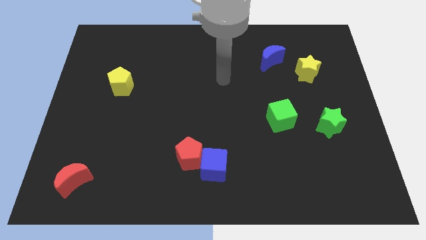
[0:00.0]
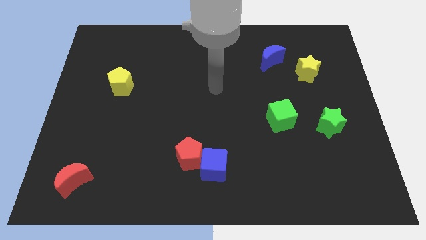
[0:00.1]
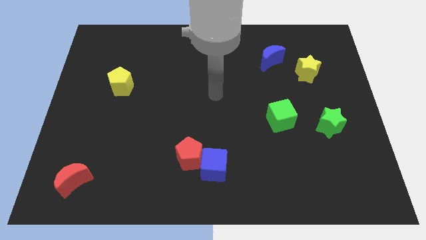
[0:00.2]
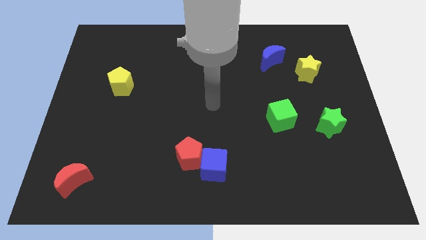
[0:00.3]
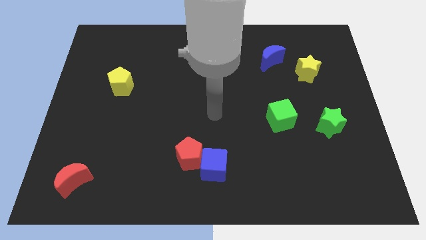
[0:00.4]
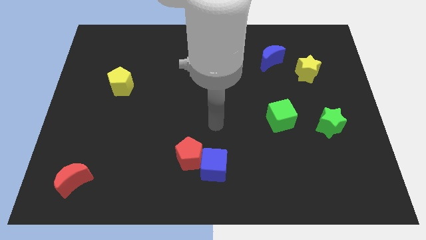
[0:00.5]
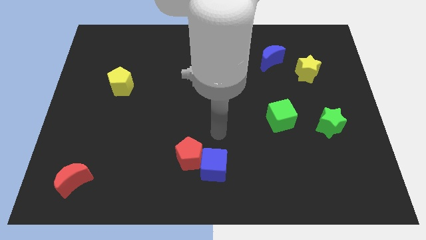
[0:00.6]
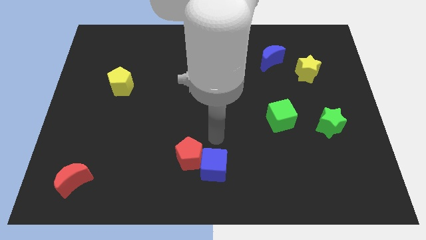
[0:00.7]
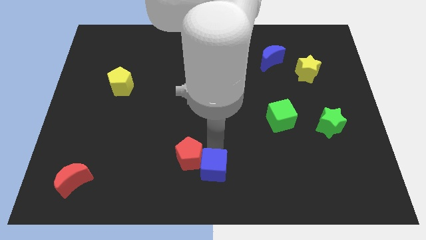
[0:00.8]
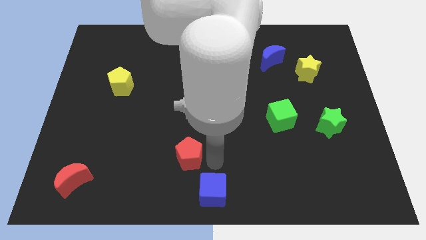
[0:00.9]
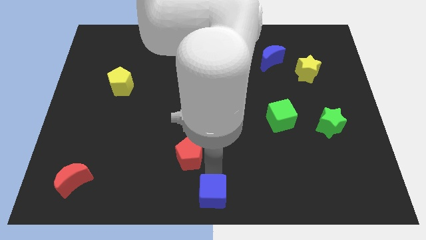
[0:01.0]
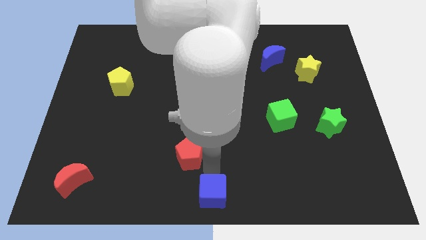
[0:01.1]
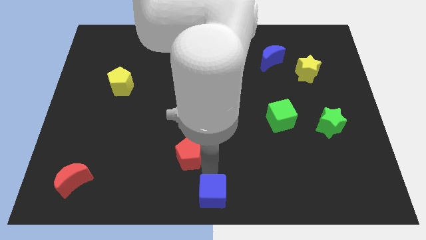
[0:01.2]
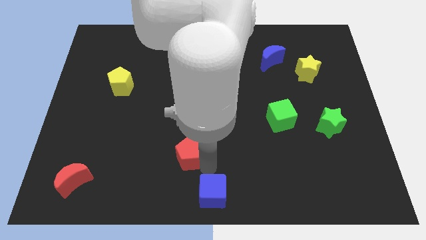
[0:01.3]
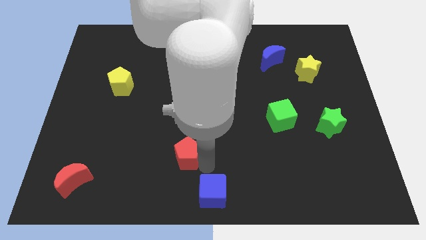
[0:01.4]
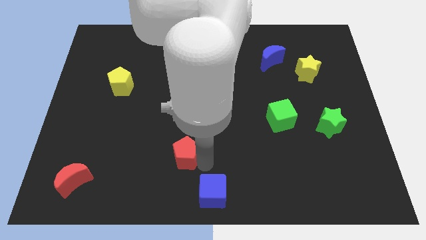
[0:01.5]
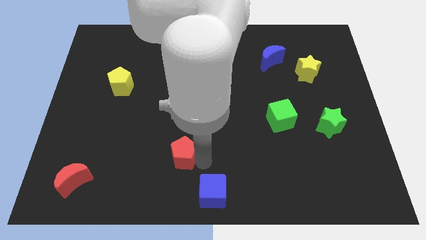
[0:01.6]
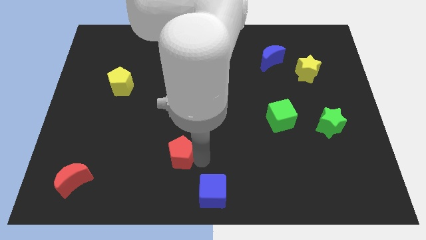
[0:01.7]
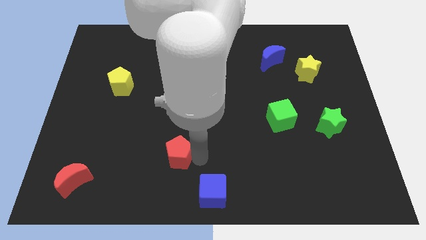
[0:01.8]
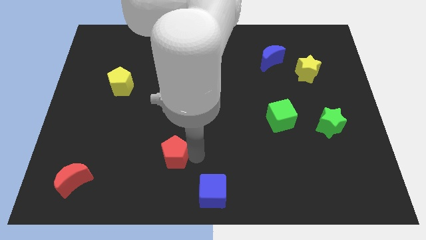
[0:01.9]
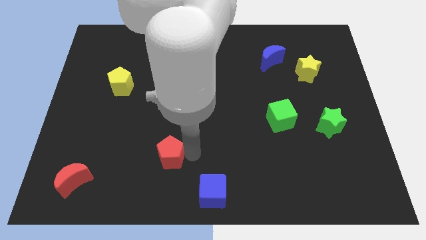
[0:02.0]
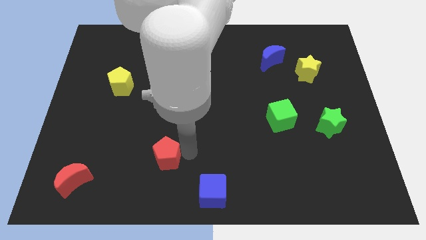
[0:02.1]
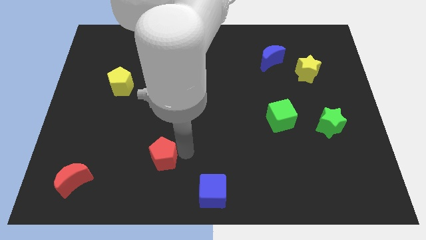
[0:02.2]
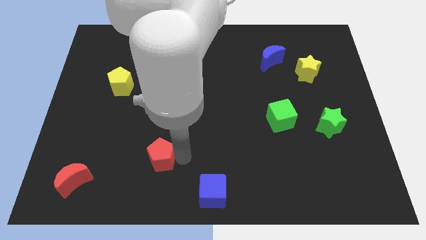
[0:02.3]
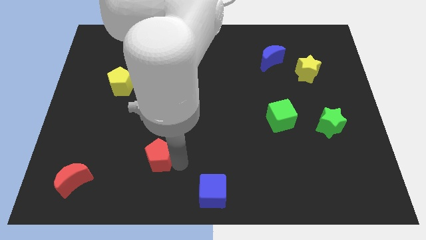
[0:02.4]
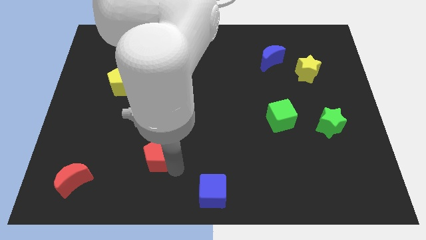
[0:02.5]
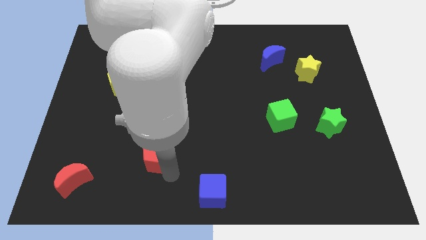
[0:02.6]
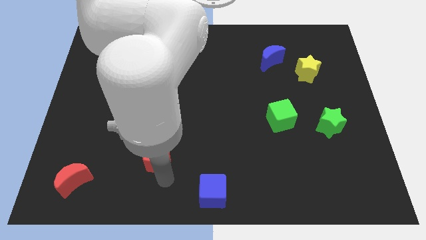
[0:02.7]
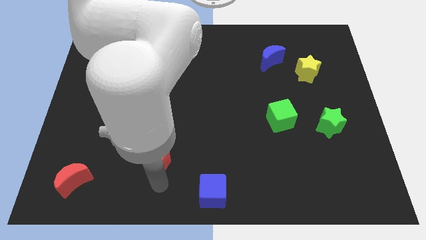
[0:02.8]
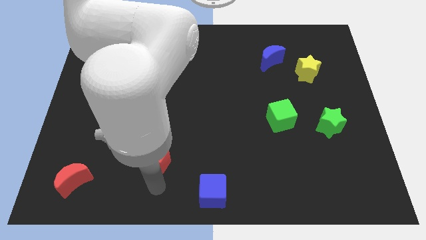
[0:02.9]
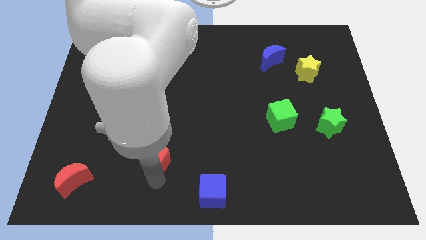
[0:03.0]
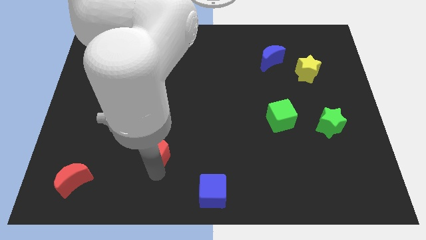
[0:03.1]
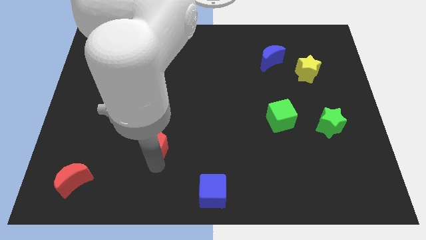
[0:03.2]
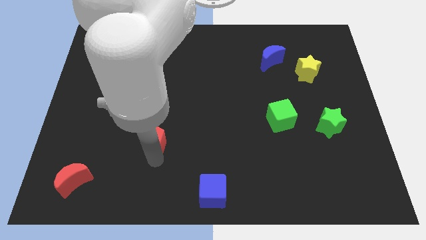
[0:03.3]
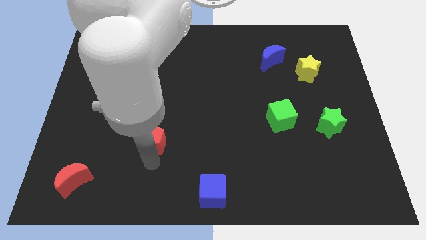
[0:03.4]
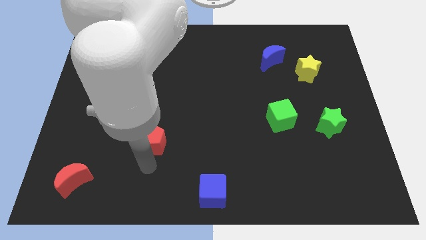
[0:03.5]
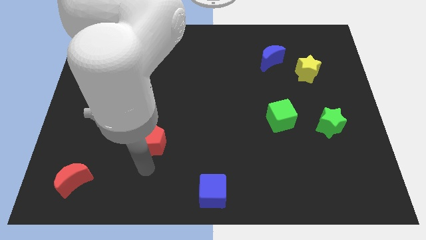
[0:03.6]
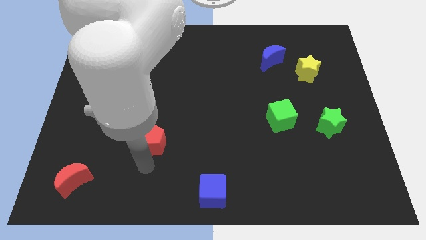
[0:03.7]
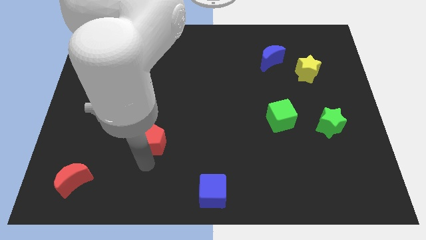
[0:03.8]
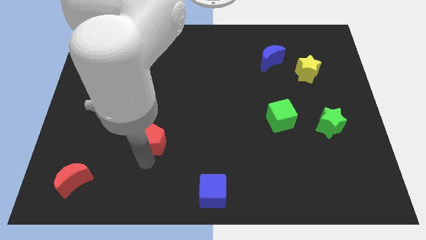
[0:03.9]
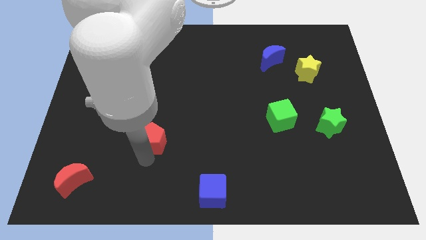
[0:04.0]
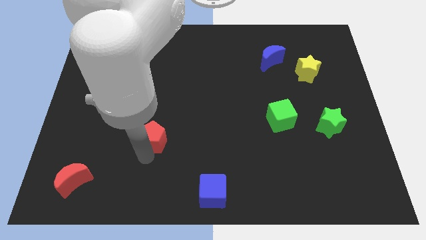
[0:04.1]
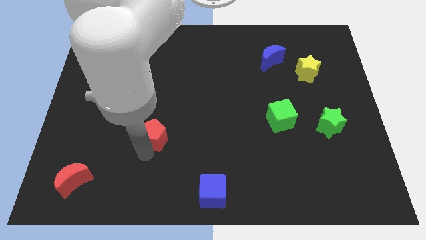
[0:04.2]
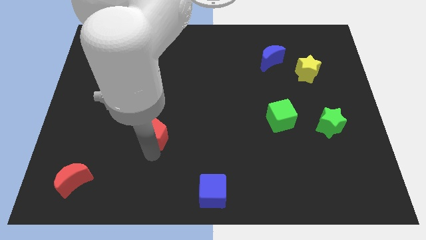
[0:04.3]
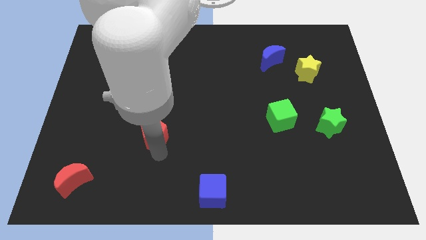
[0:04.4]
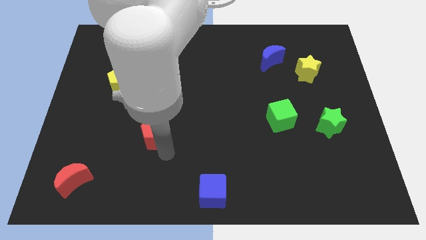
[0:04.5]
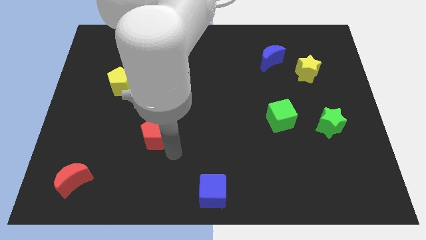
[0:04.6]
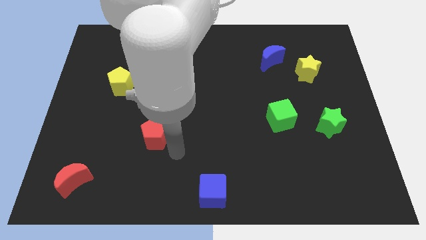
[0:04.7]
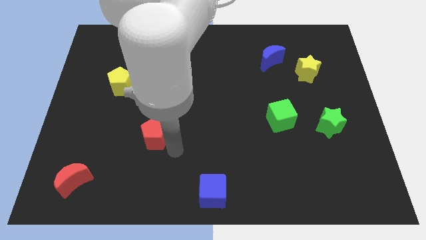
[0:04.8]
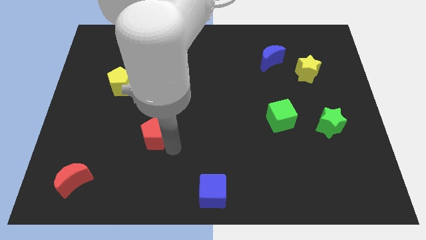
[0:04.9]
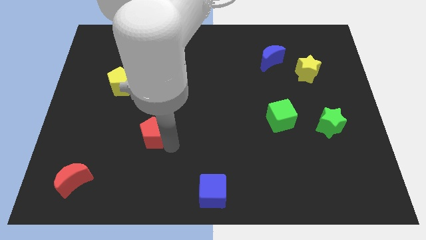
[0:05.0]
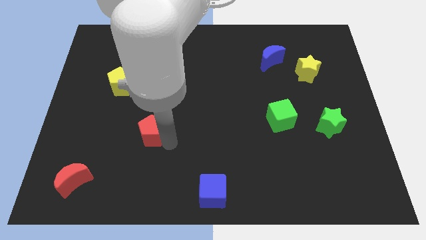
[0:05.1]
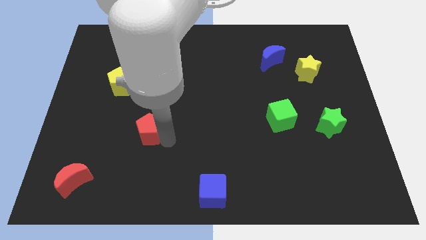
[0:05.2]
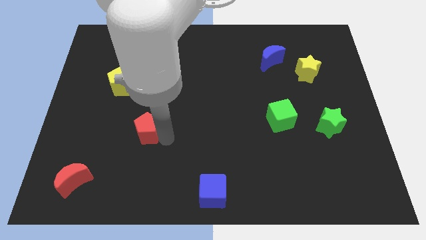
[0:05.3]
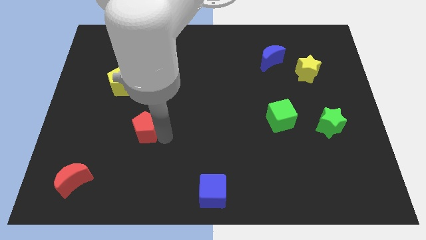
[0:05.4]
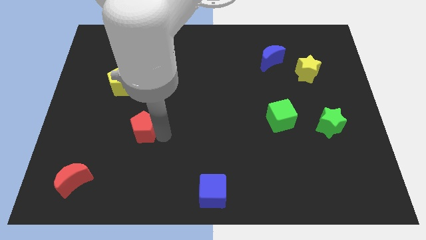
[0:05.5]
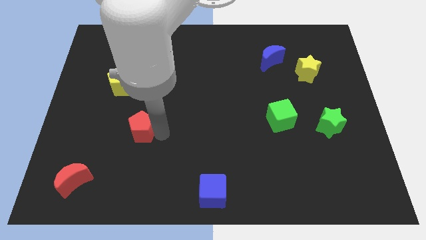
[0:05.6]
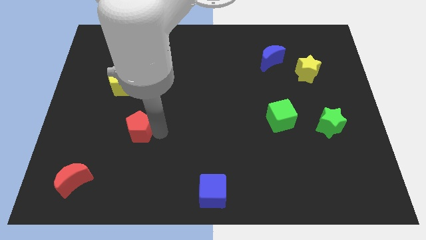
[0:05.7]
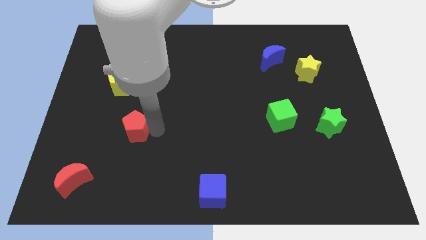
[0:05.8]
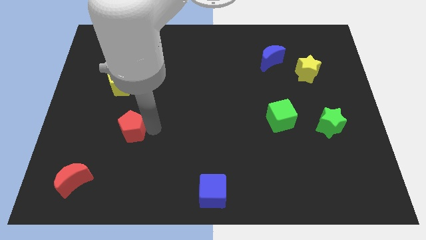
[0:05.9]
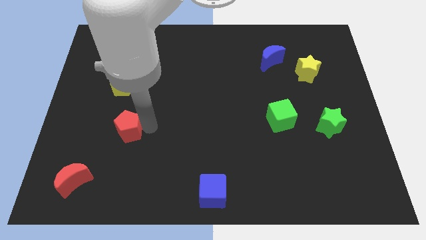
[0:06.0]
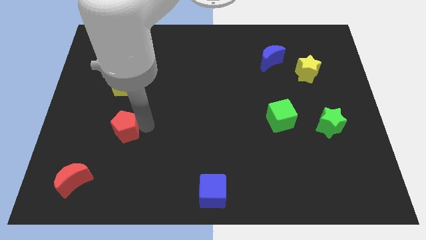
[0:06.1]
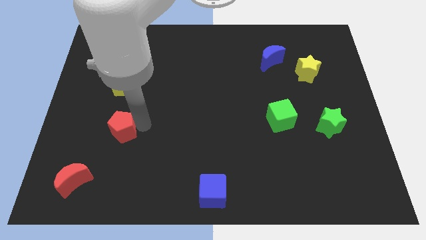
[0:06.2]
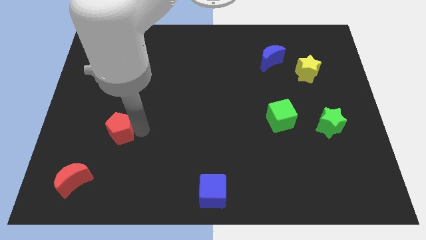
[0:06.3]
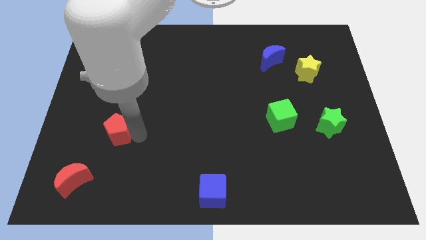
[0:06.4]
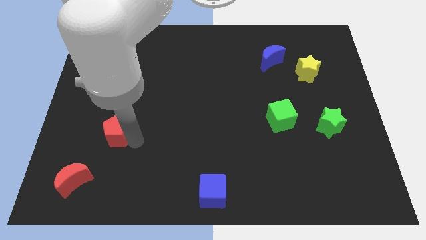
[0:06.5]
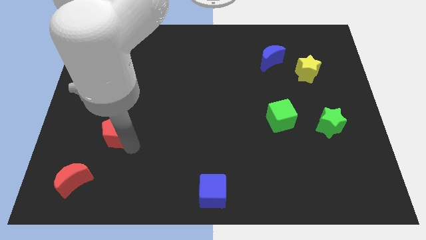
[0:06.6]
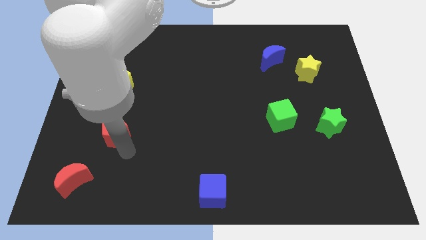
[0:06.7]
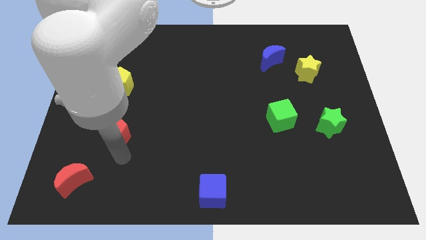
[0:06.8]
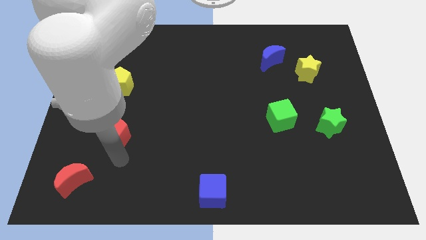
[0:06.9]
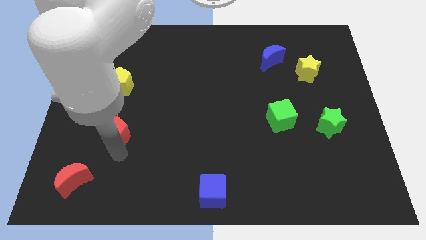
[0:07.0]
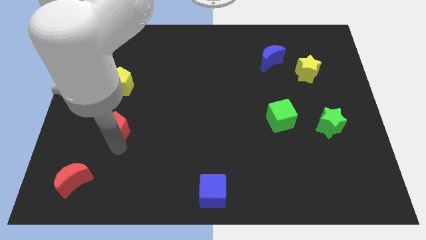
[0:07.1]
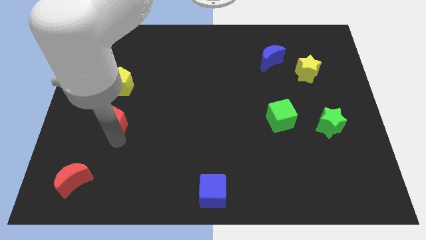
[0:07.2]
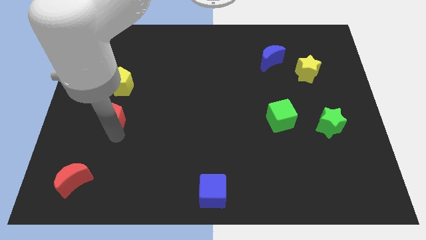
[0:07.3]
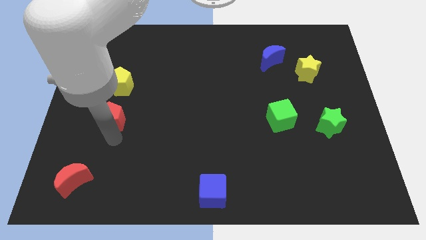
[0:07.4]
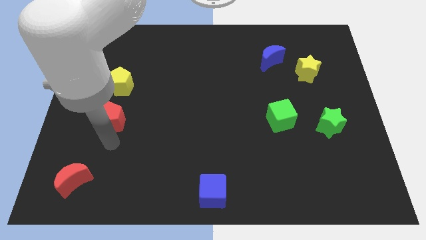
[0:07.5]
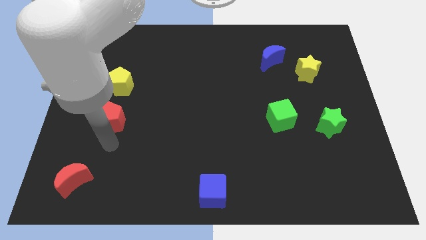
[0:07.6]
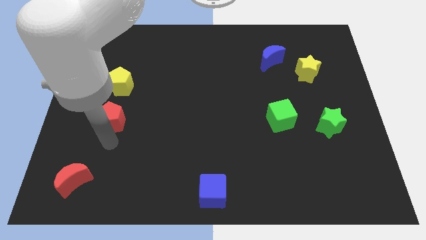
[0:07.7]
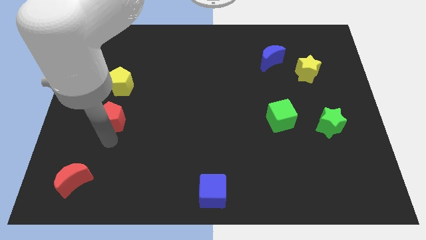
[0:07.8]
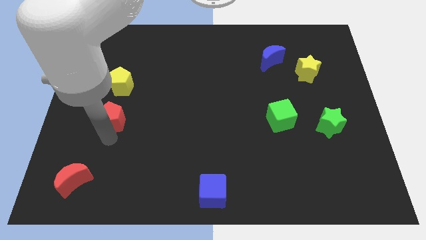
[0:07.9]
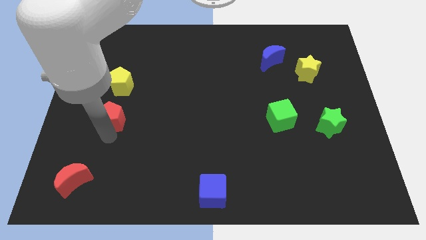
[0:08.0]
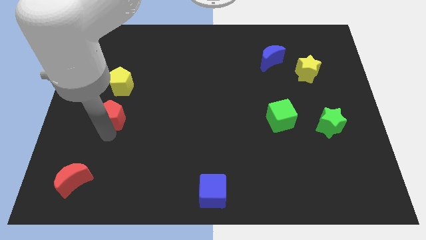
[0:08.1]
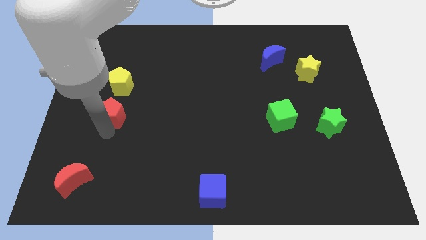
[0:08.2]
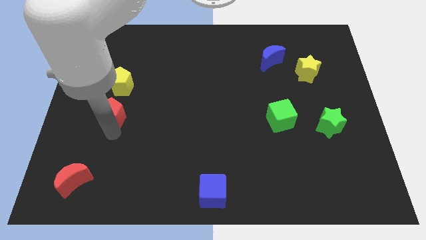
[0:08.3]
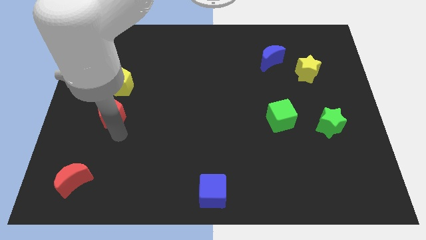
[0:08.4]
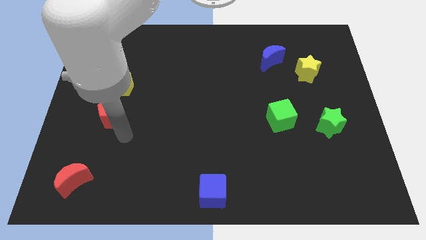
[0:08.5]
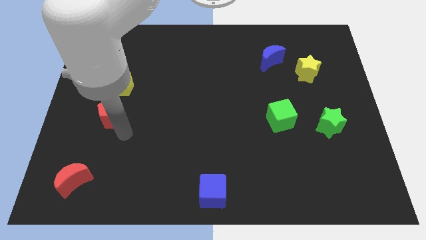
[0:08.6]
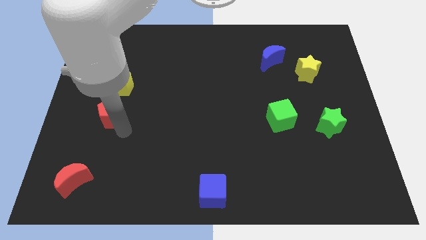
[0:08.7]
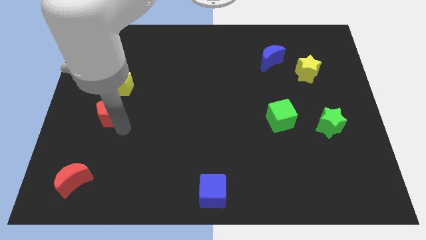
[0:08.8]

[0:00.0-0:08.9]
push the red pentagon up and left
